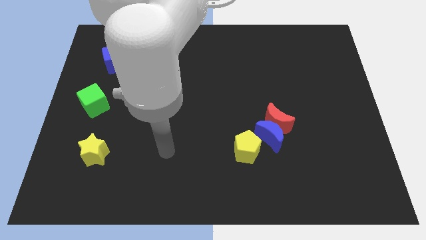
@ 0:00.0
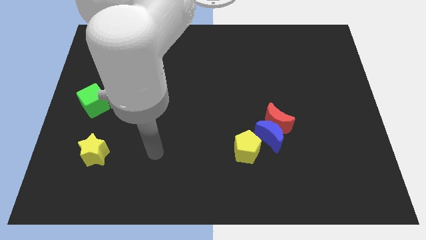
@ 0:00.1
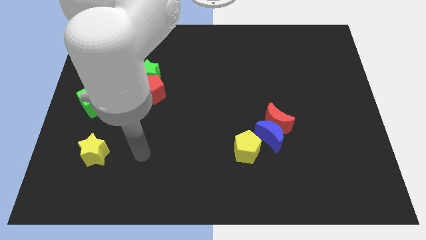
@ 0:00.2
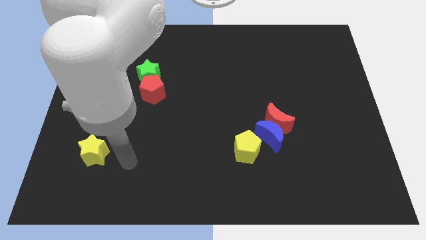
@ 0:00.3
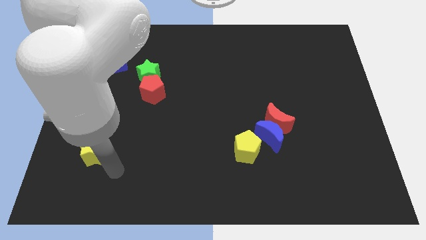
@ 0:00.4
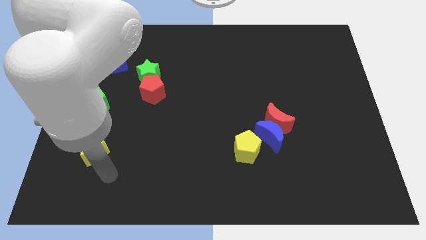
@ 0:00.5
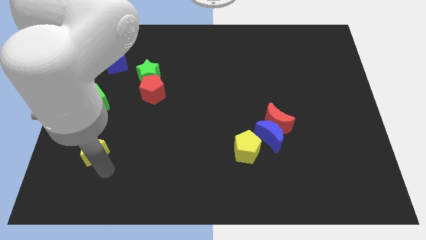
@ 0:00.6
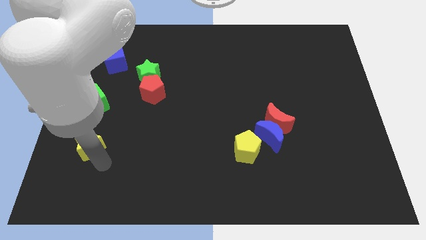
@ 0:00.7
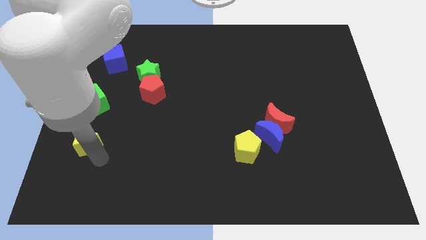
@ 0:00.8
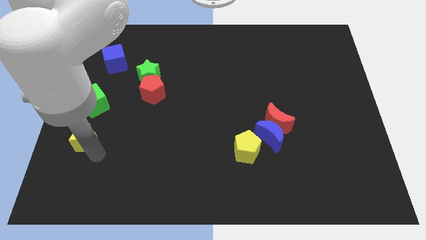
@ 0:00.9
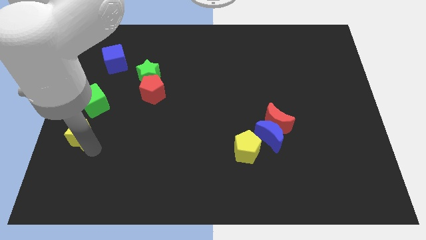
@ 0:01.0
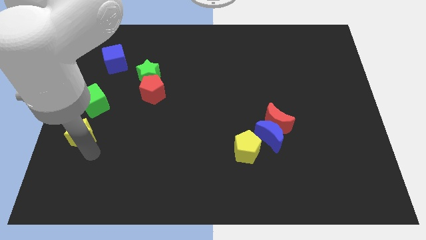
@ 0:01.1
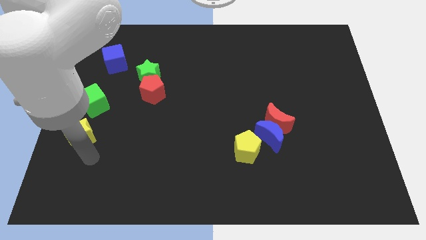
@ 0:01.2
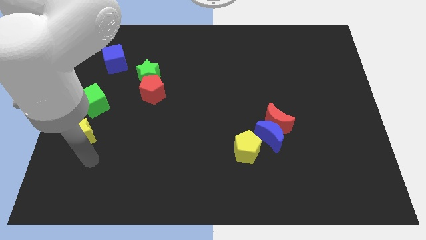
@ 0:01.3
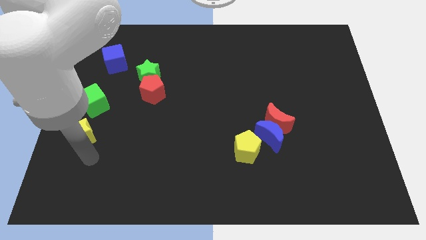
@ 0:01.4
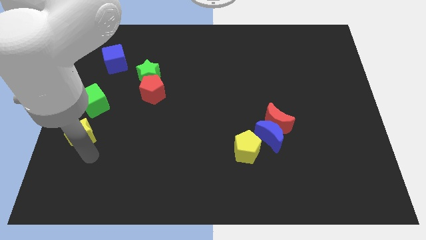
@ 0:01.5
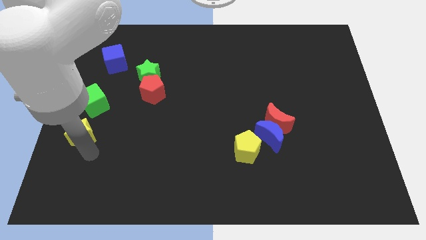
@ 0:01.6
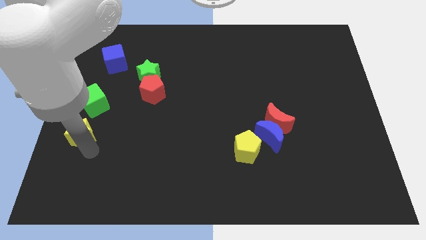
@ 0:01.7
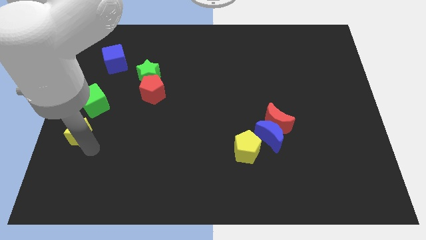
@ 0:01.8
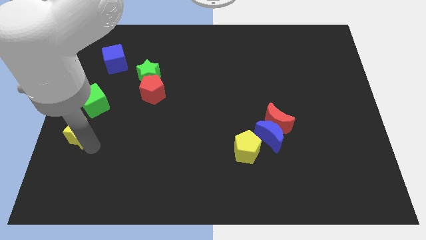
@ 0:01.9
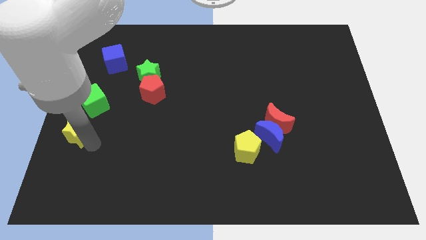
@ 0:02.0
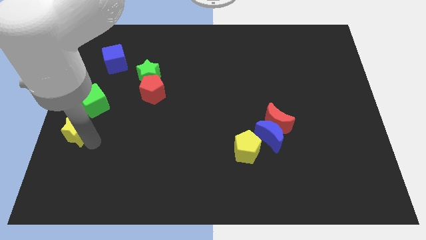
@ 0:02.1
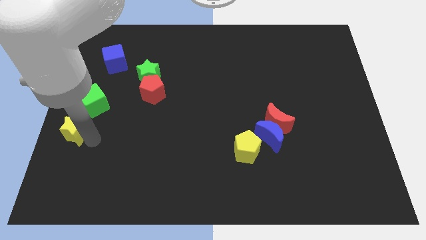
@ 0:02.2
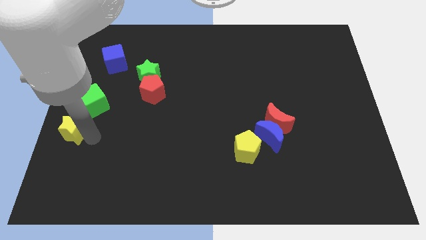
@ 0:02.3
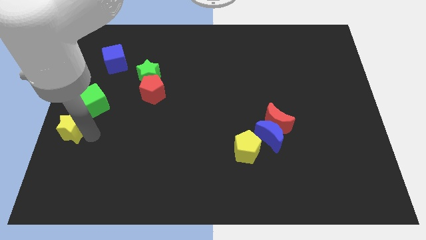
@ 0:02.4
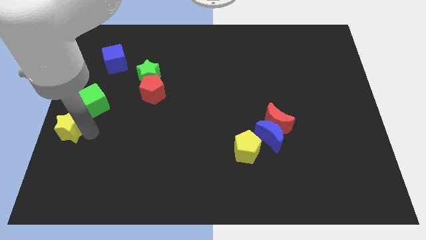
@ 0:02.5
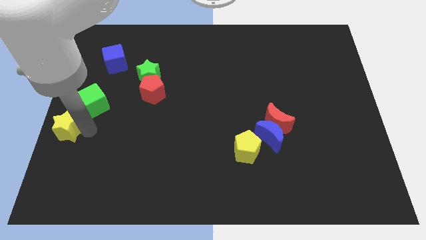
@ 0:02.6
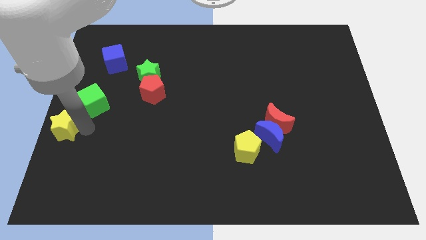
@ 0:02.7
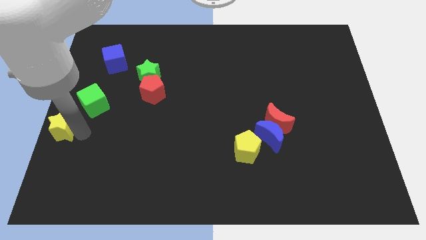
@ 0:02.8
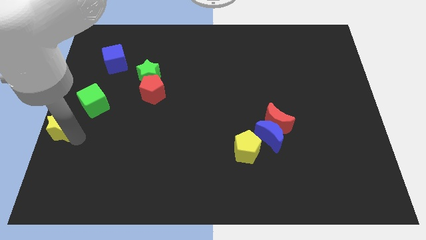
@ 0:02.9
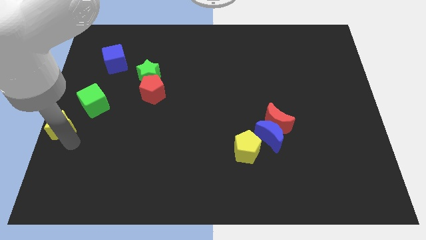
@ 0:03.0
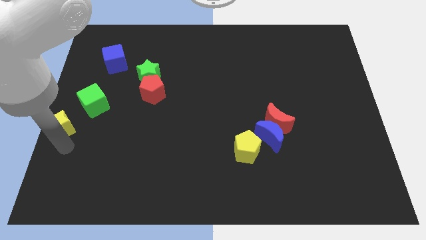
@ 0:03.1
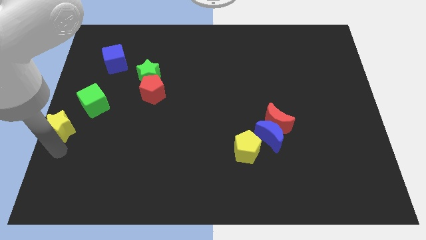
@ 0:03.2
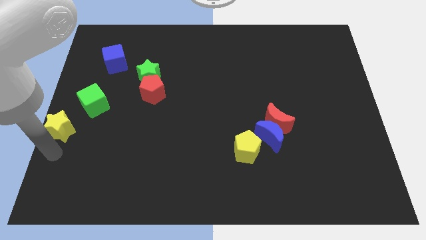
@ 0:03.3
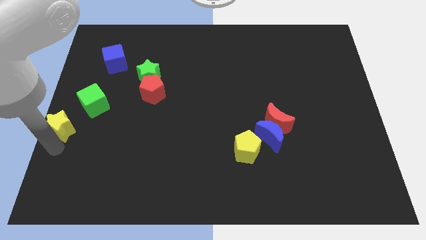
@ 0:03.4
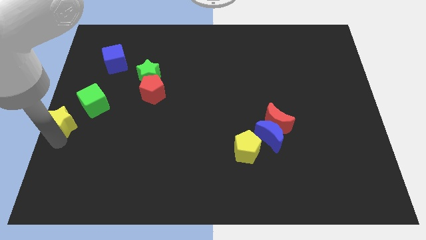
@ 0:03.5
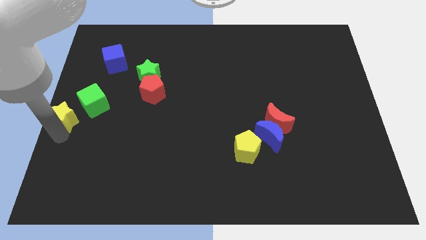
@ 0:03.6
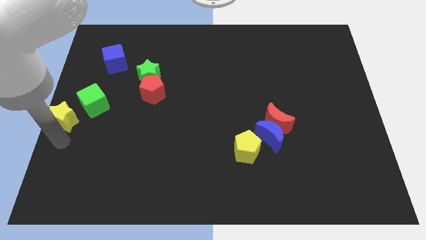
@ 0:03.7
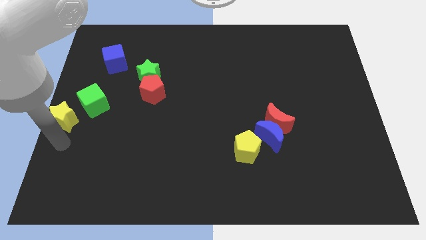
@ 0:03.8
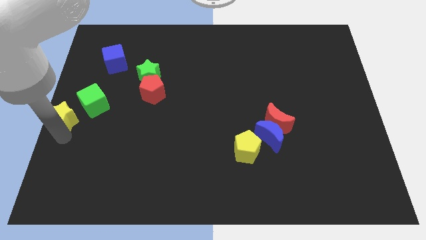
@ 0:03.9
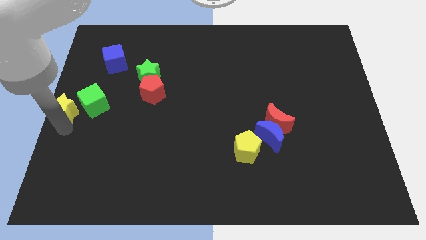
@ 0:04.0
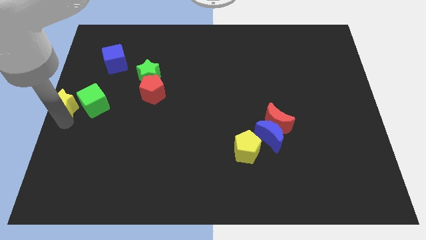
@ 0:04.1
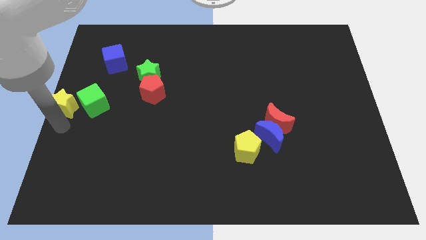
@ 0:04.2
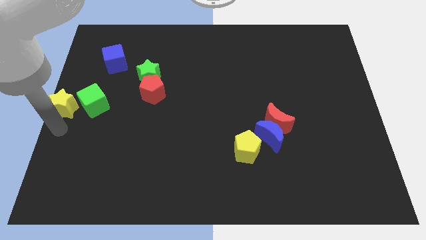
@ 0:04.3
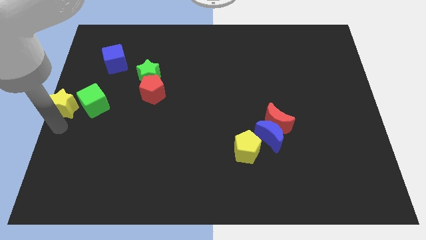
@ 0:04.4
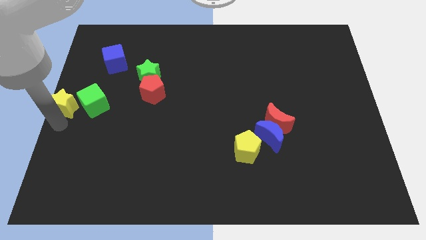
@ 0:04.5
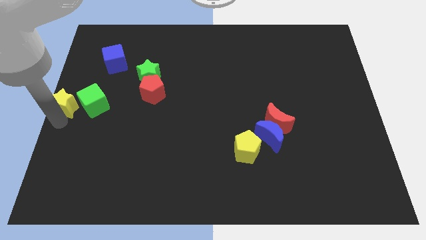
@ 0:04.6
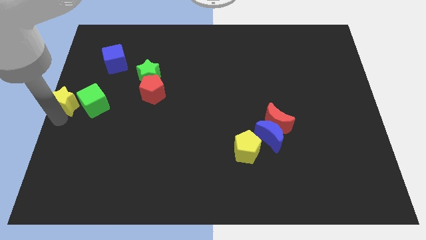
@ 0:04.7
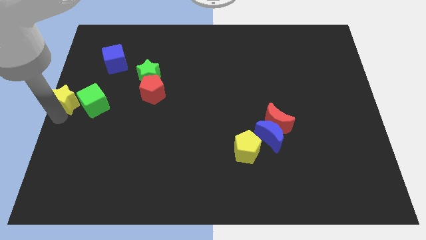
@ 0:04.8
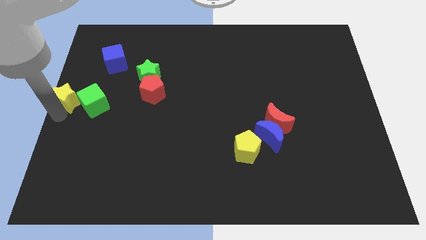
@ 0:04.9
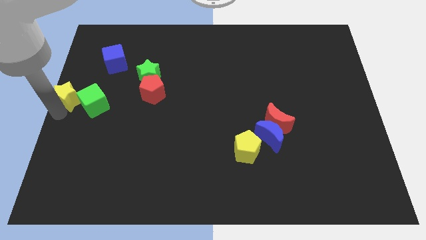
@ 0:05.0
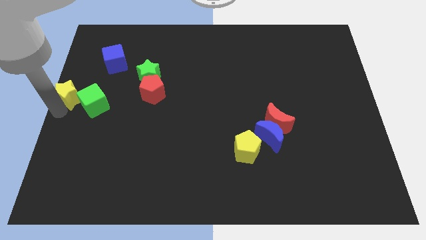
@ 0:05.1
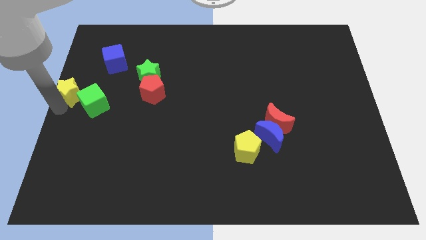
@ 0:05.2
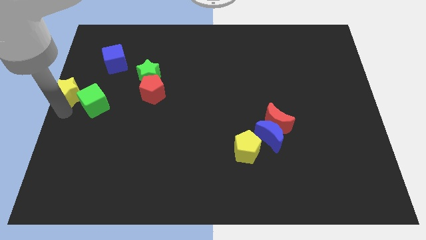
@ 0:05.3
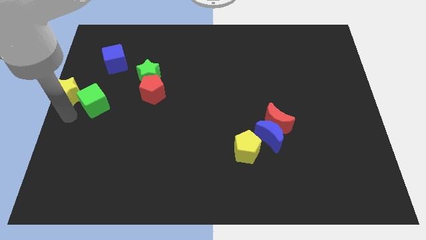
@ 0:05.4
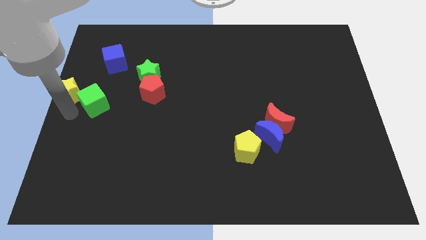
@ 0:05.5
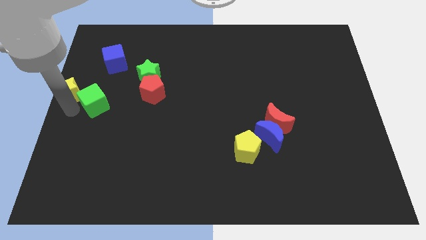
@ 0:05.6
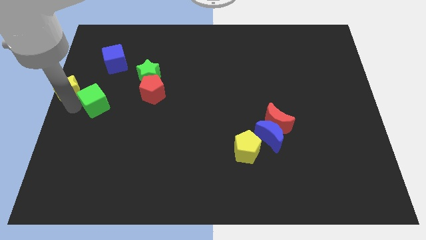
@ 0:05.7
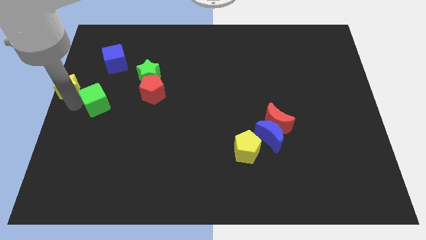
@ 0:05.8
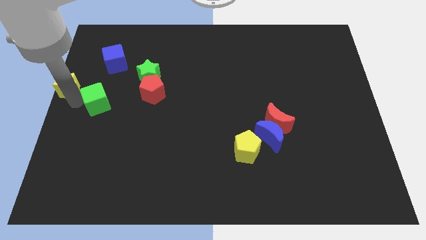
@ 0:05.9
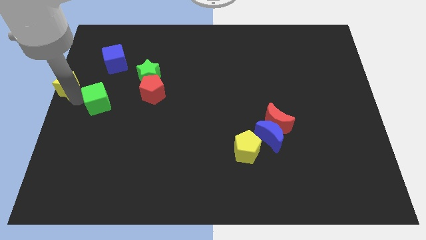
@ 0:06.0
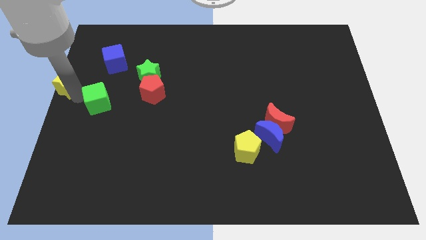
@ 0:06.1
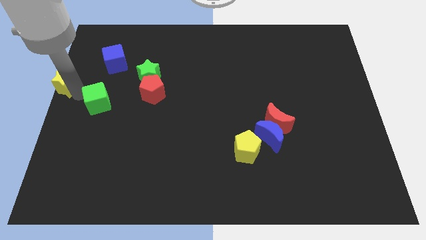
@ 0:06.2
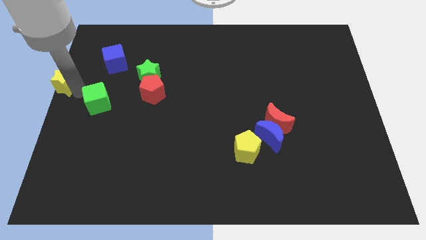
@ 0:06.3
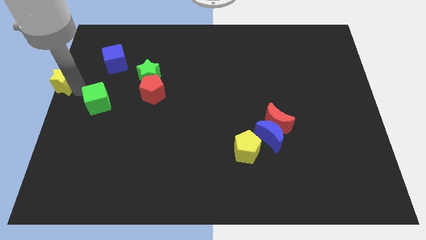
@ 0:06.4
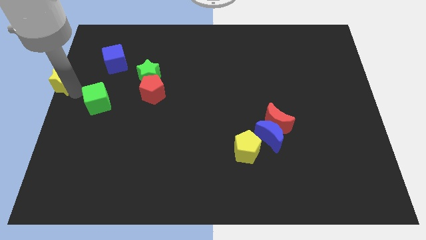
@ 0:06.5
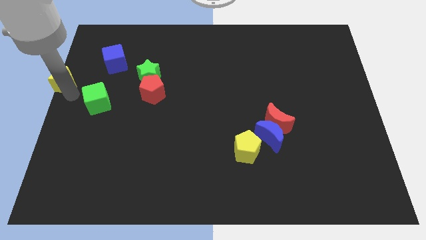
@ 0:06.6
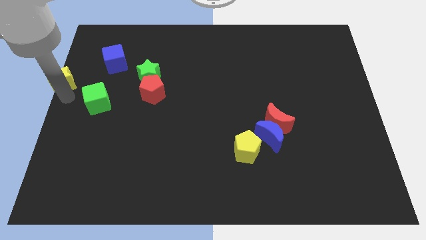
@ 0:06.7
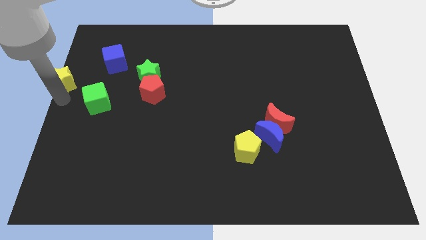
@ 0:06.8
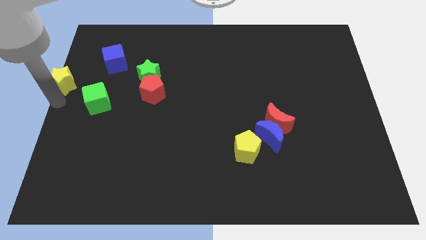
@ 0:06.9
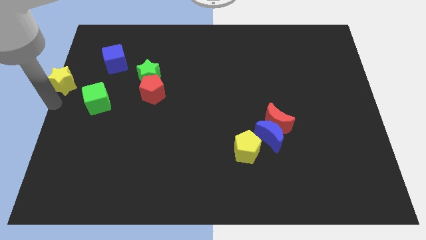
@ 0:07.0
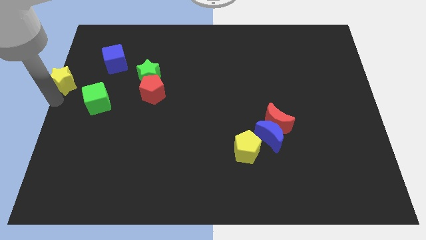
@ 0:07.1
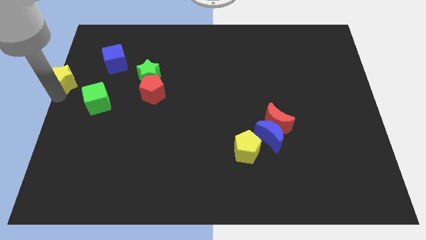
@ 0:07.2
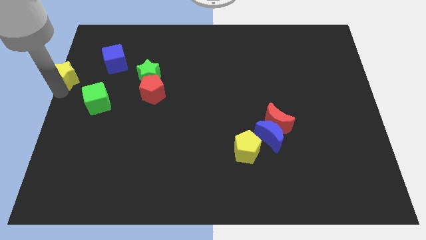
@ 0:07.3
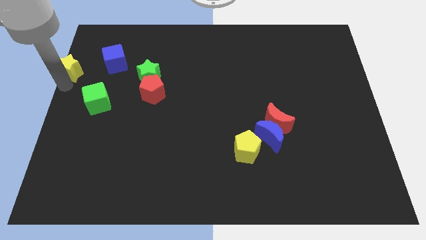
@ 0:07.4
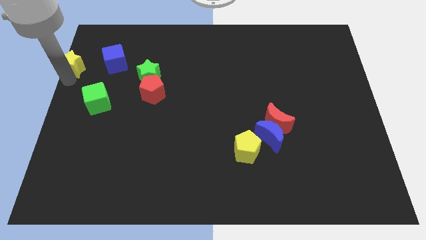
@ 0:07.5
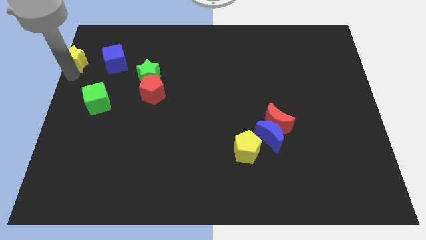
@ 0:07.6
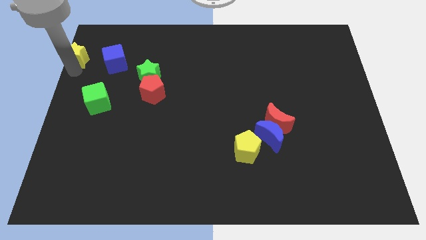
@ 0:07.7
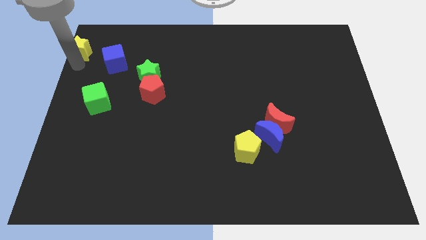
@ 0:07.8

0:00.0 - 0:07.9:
push the yellow star to the upper left corner
